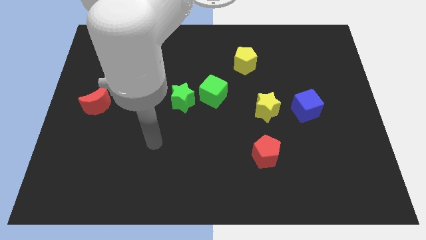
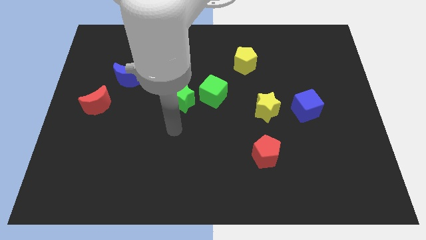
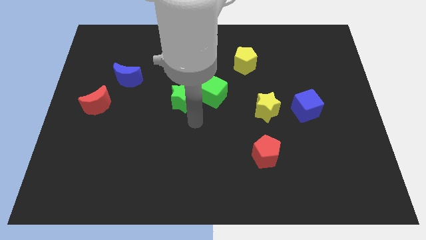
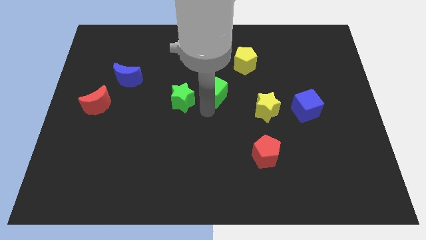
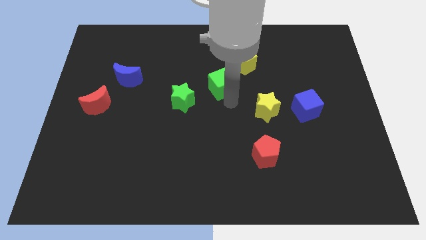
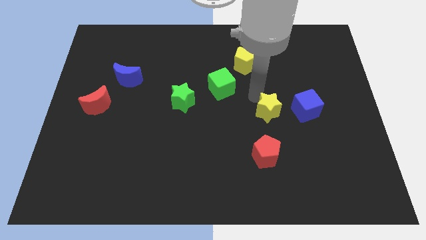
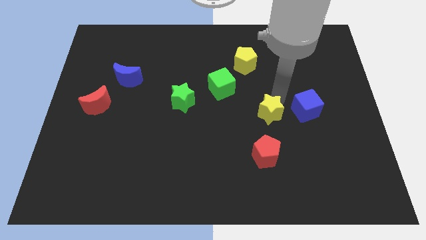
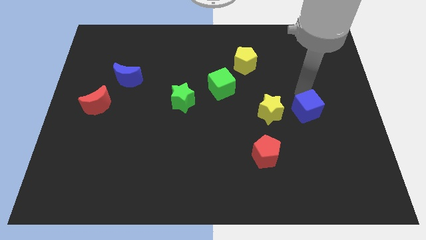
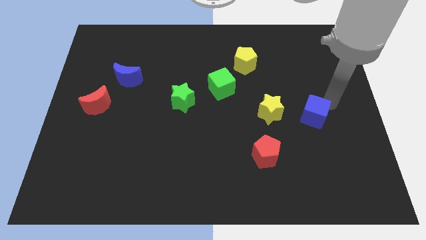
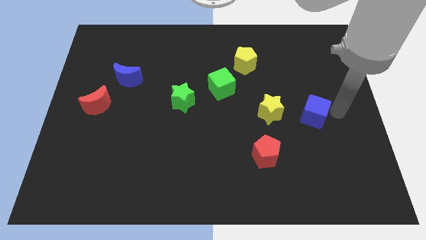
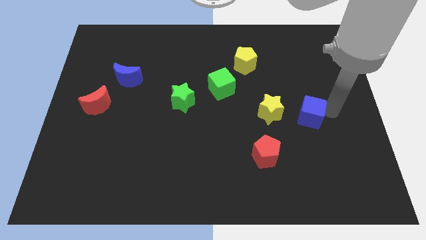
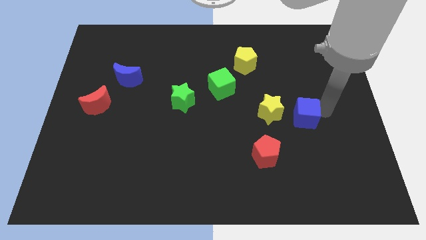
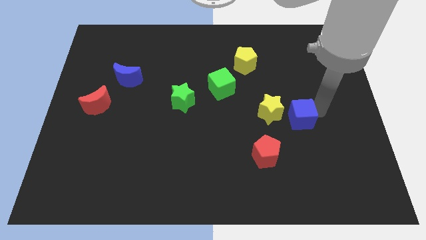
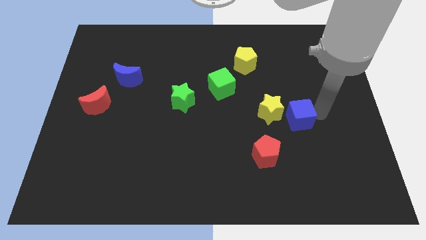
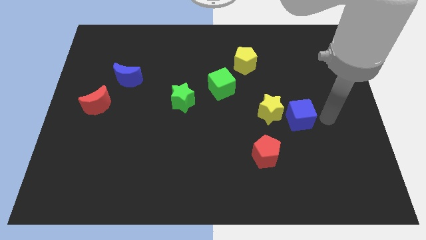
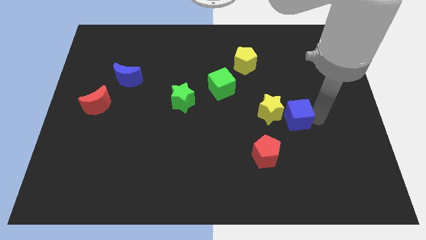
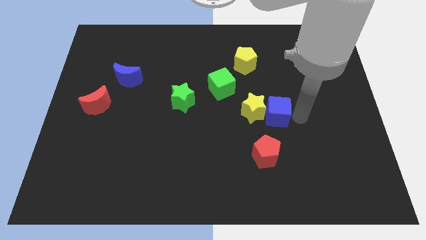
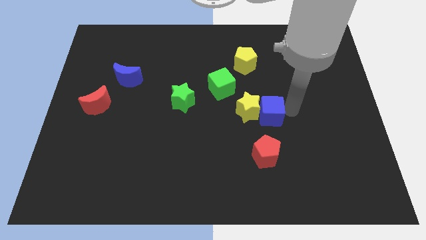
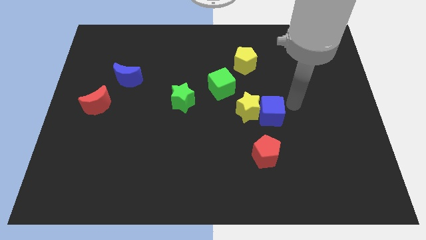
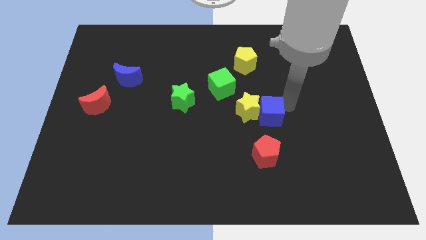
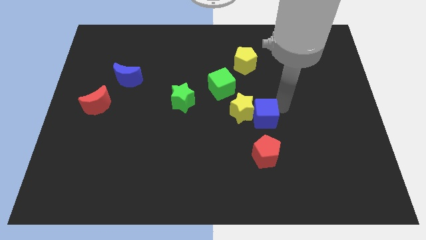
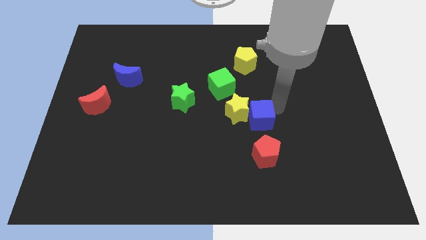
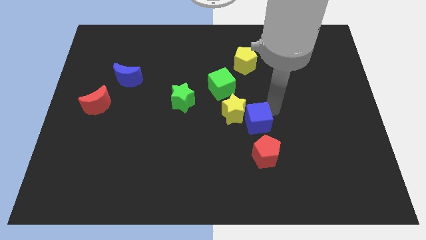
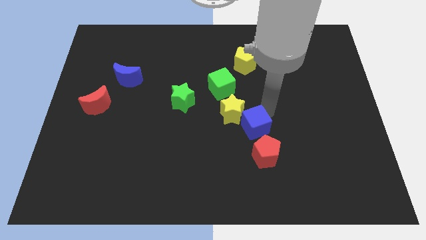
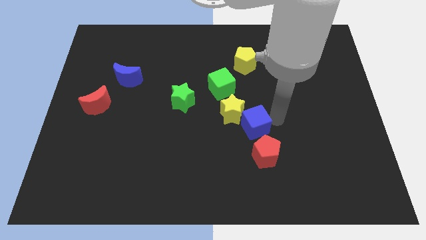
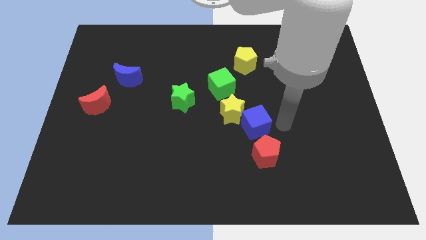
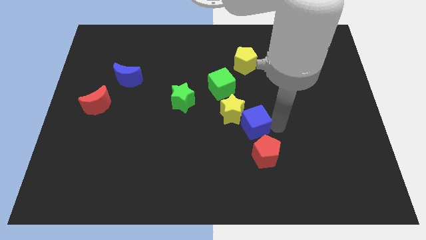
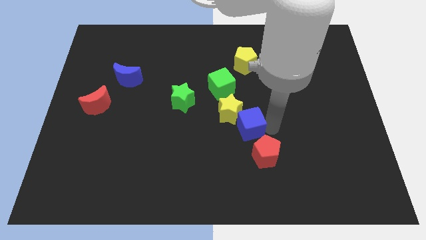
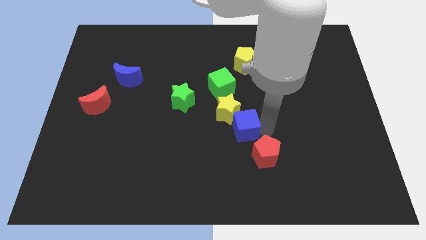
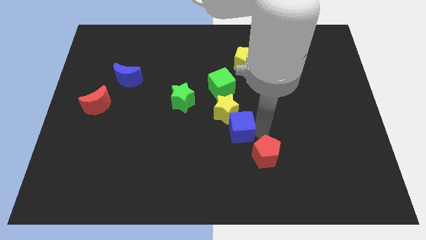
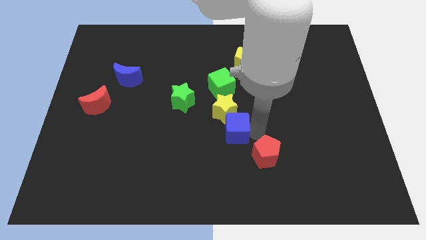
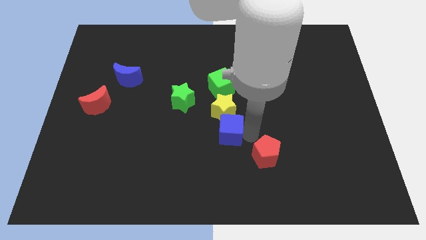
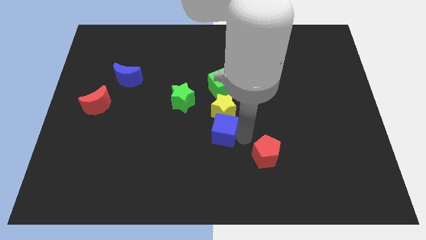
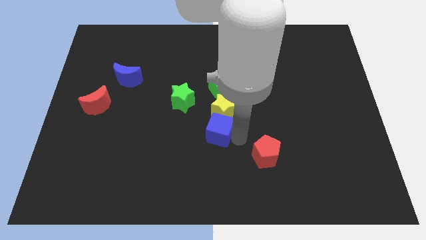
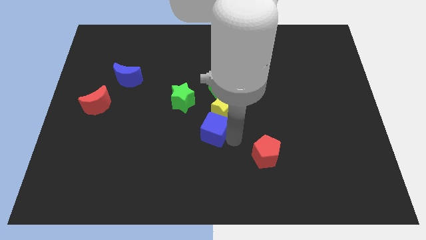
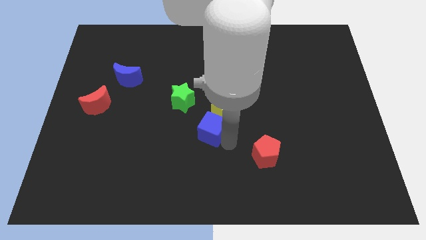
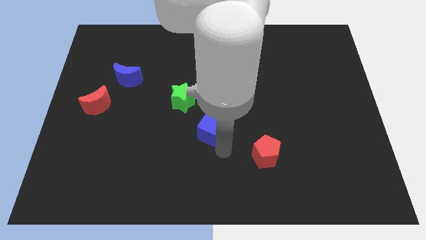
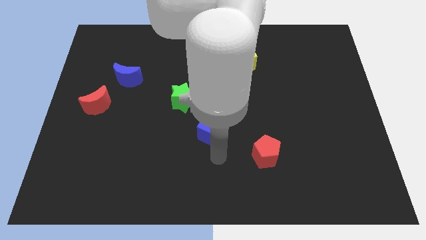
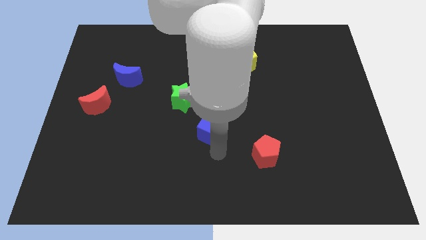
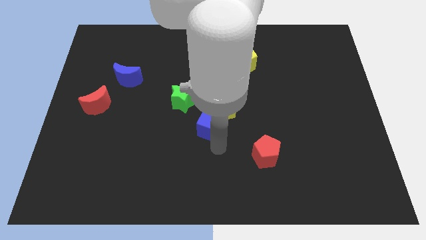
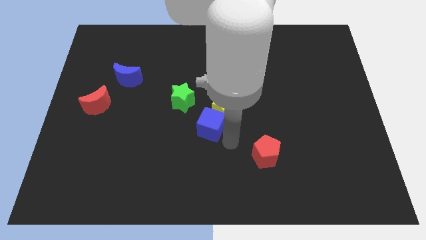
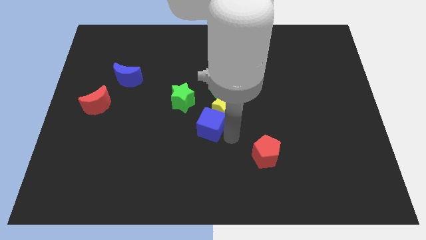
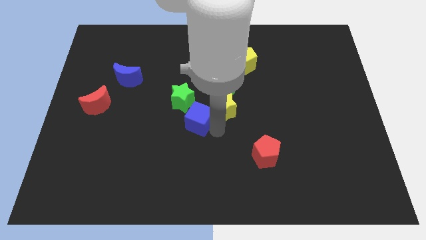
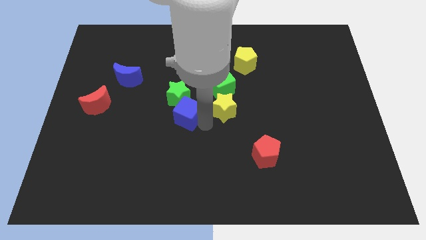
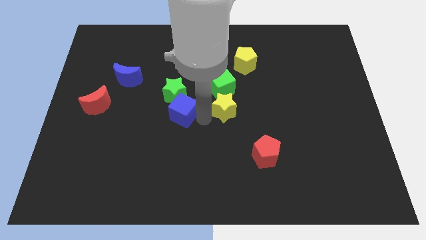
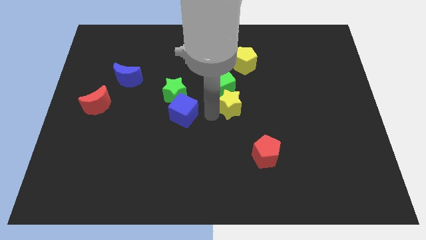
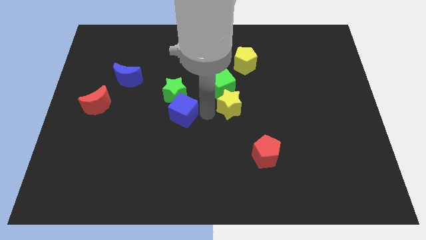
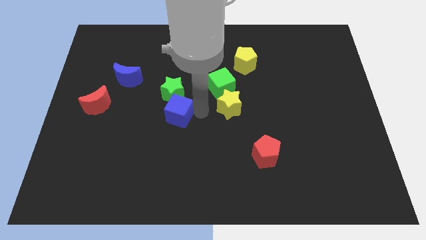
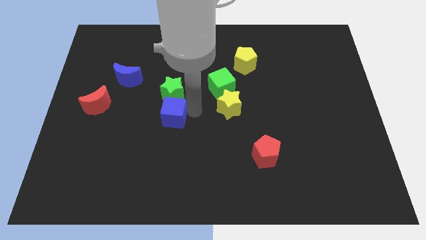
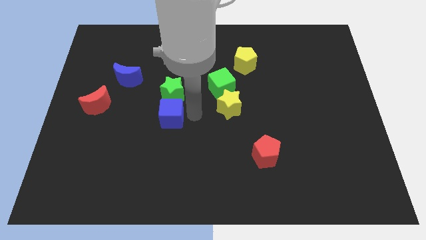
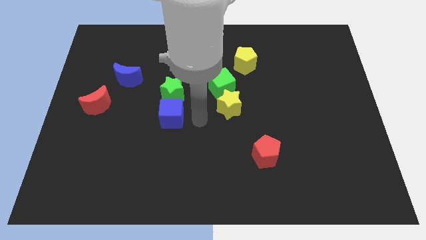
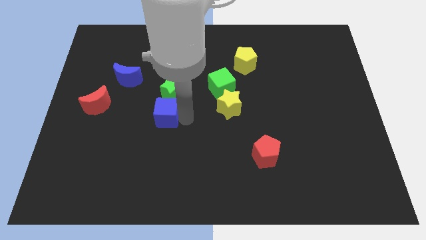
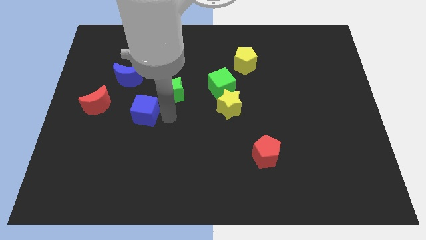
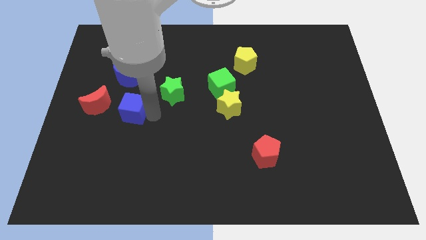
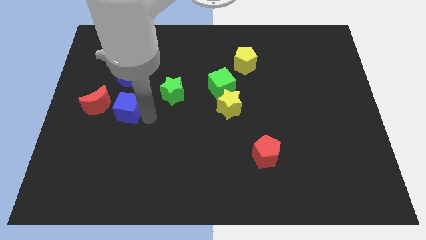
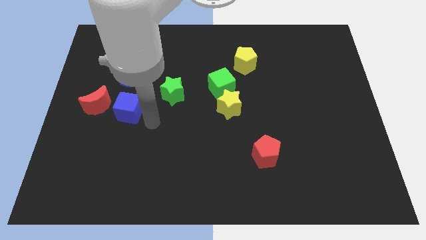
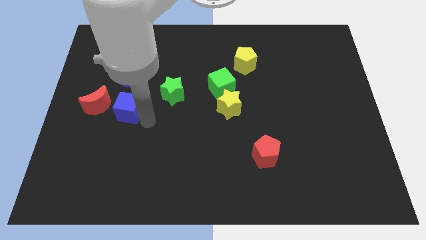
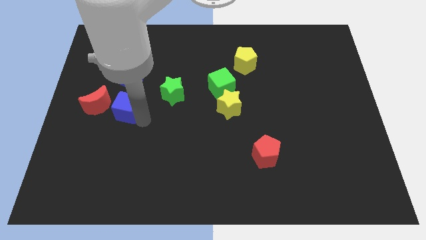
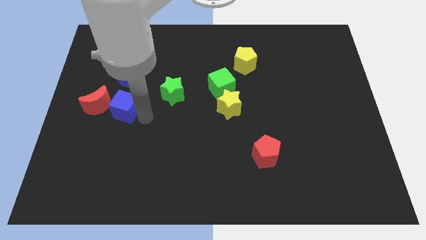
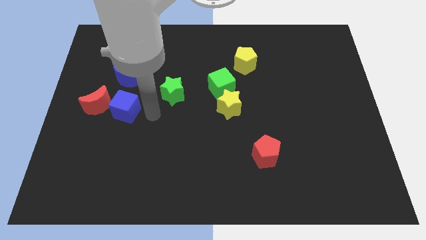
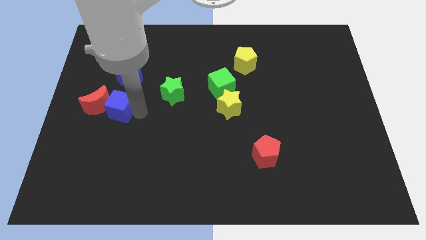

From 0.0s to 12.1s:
move the blue cube towards the red moon

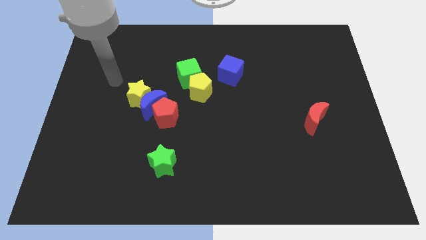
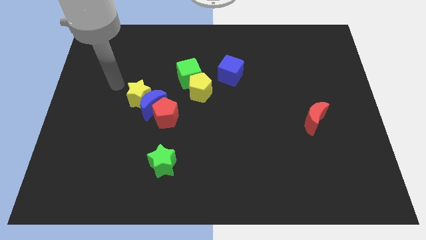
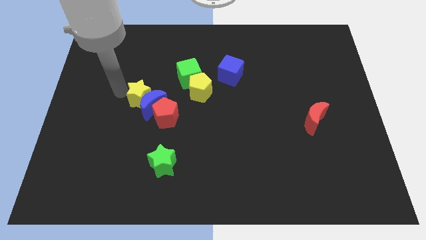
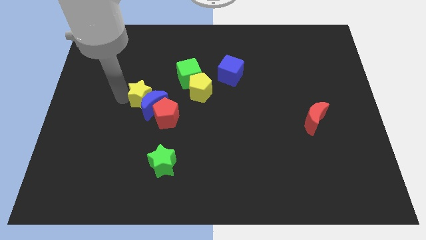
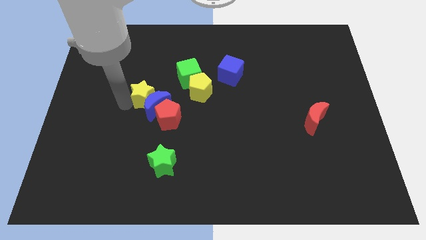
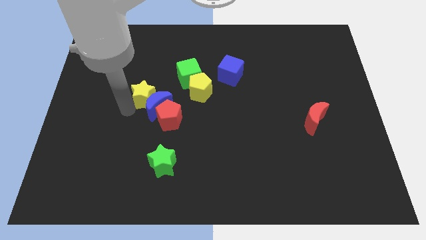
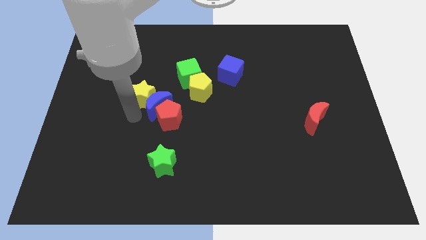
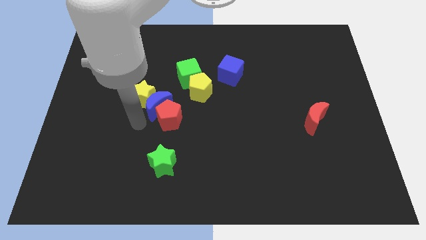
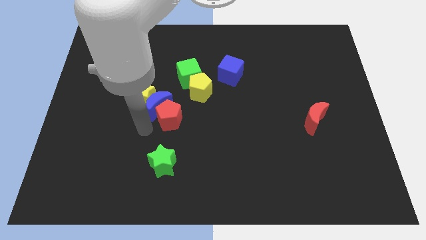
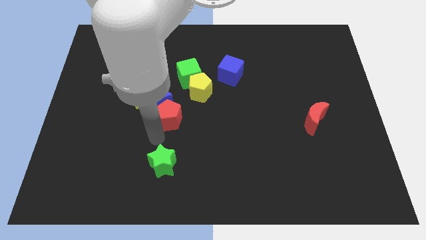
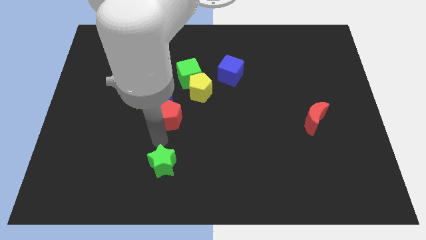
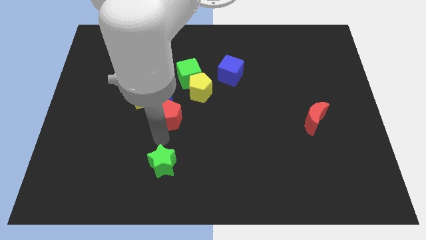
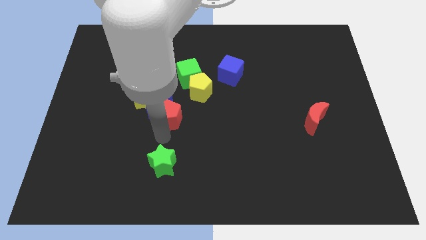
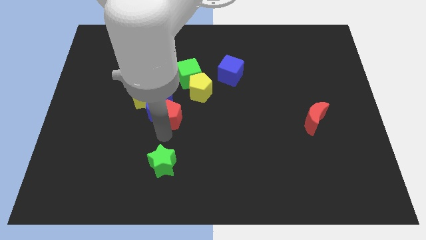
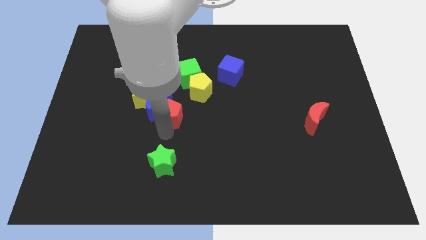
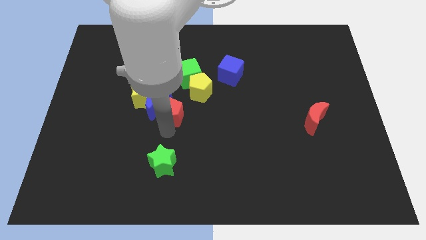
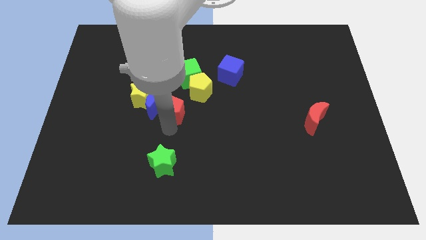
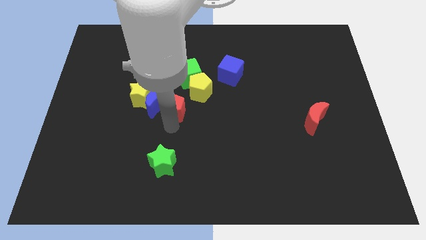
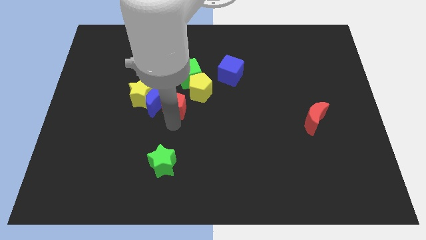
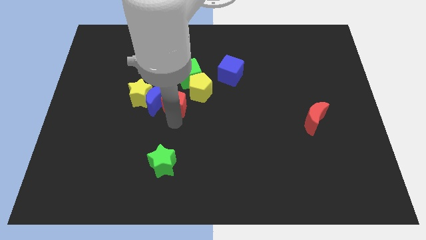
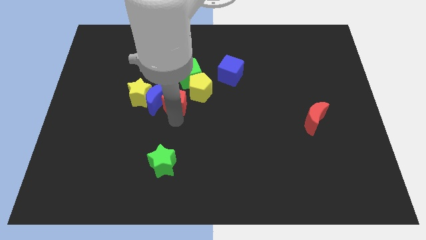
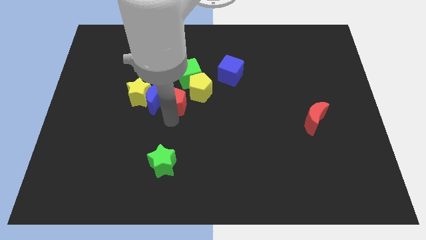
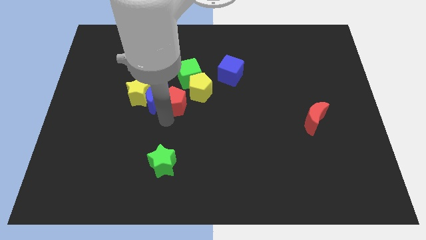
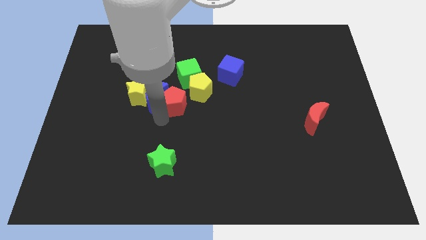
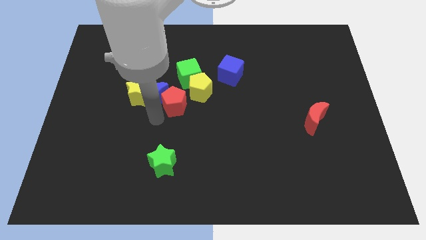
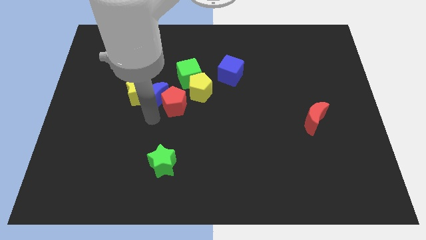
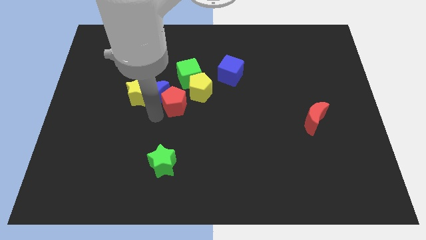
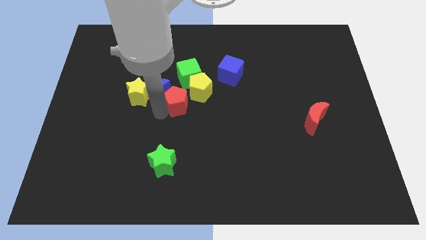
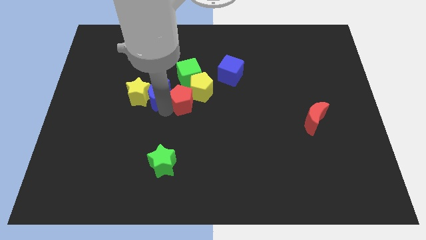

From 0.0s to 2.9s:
slide the red pentagon next to the yellow pentagon
